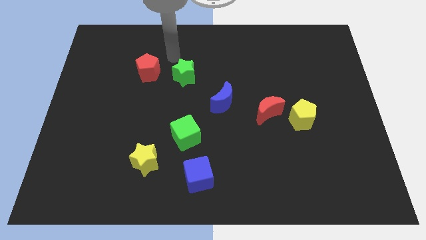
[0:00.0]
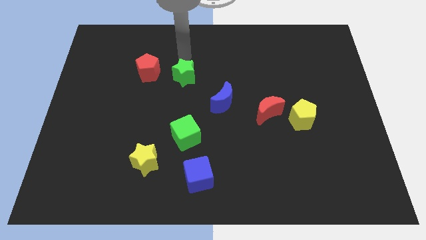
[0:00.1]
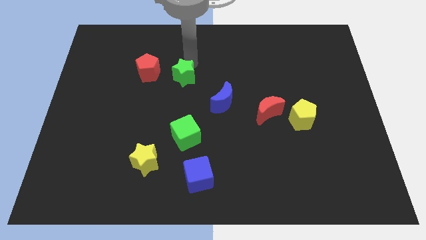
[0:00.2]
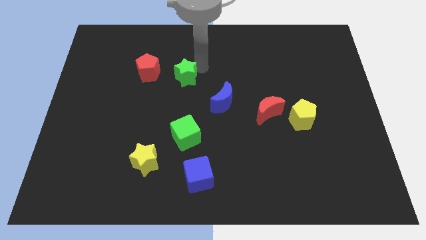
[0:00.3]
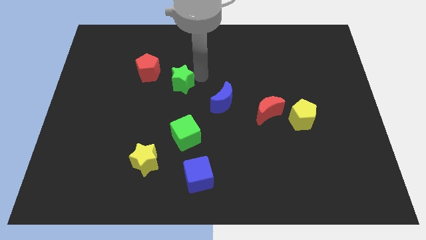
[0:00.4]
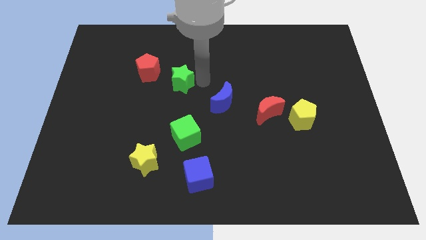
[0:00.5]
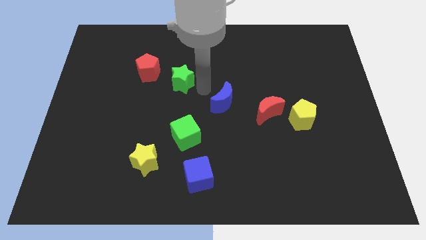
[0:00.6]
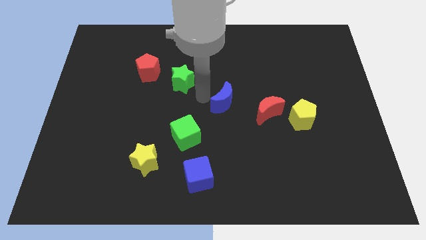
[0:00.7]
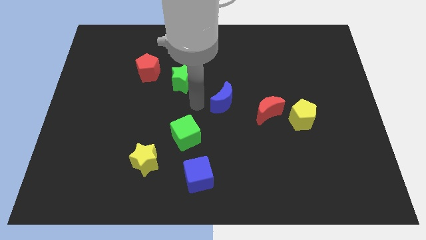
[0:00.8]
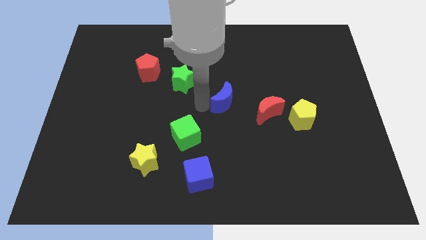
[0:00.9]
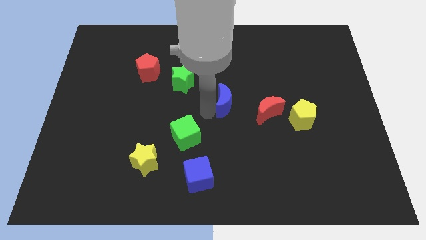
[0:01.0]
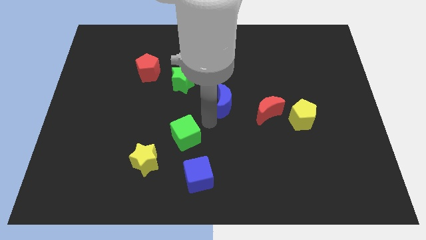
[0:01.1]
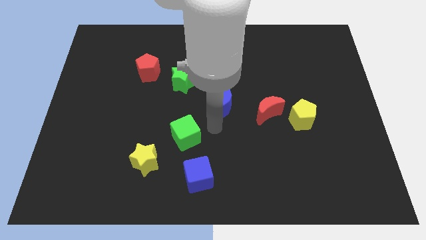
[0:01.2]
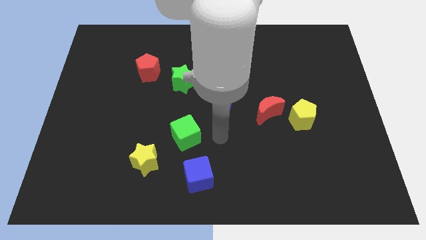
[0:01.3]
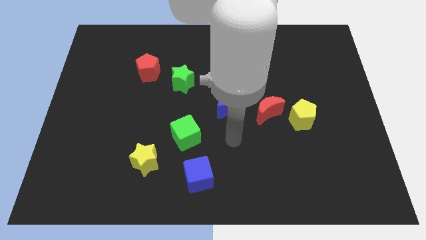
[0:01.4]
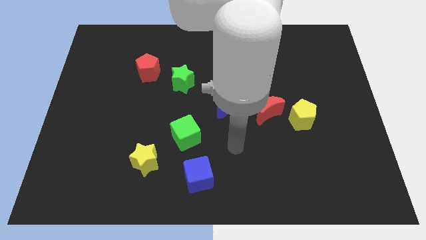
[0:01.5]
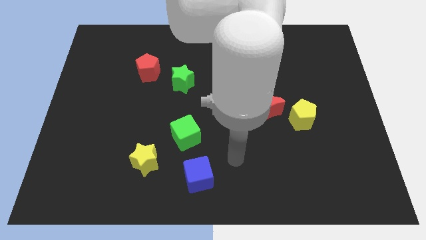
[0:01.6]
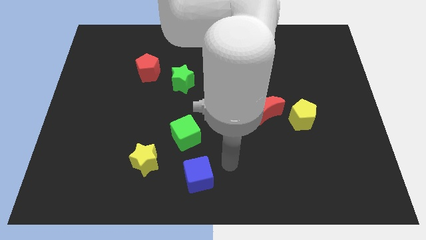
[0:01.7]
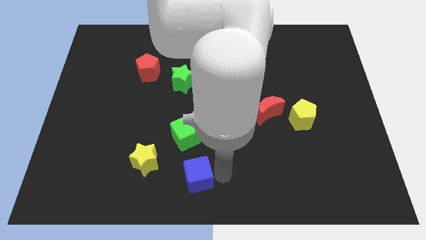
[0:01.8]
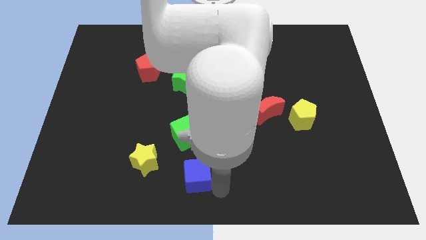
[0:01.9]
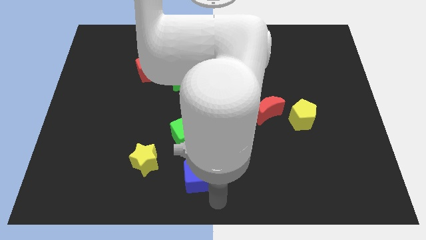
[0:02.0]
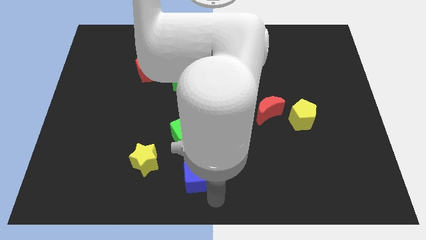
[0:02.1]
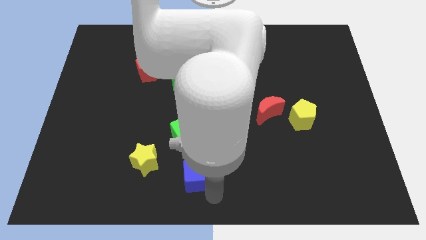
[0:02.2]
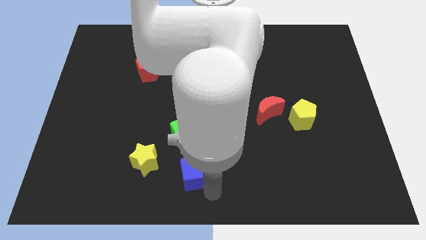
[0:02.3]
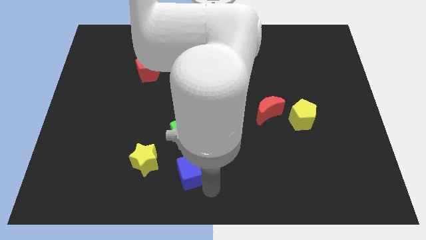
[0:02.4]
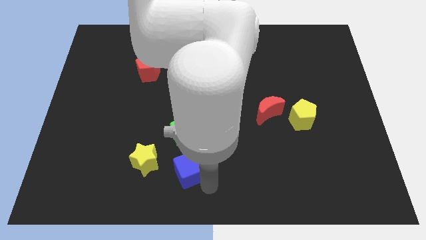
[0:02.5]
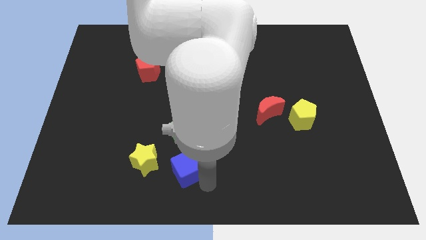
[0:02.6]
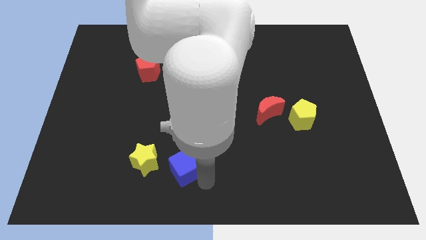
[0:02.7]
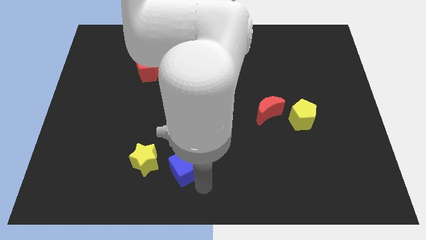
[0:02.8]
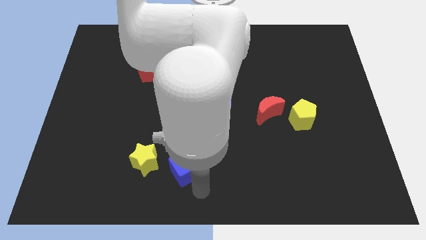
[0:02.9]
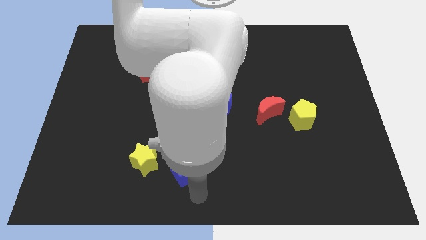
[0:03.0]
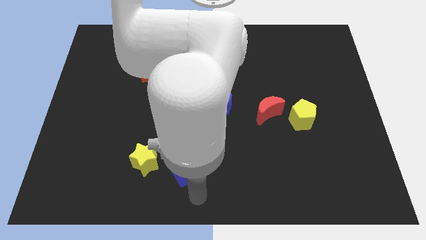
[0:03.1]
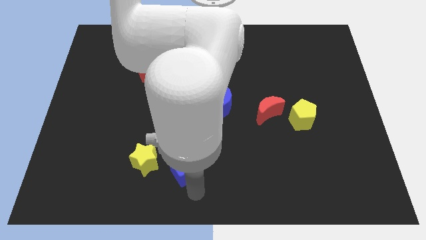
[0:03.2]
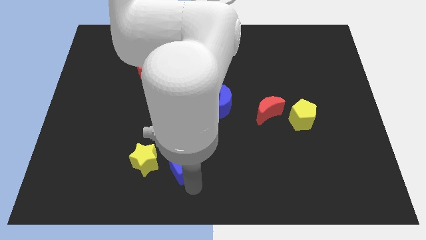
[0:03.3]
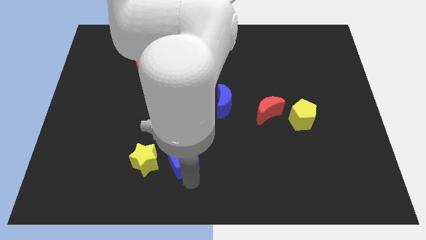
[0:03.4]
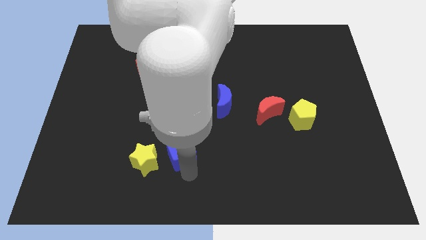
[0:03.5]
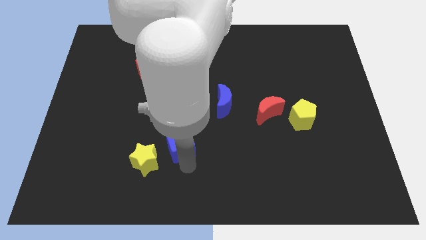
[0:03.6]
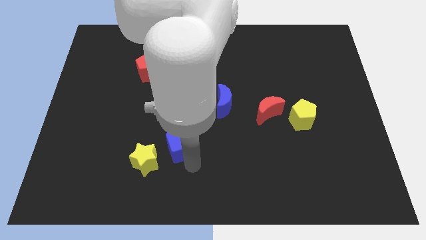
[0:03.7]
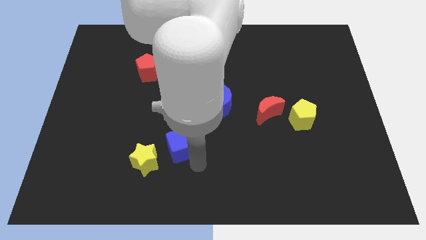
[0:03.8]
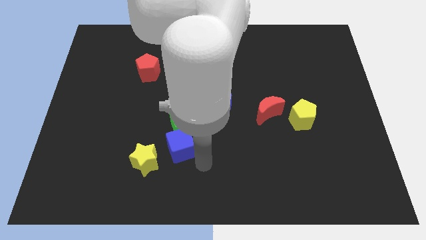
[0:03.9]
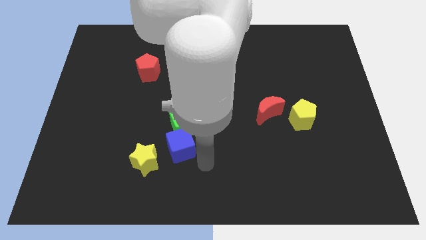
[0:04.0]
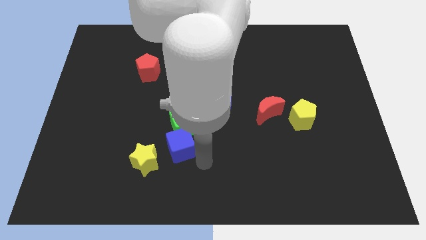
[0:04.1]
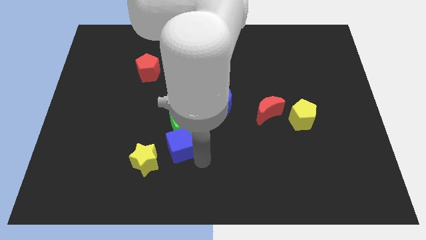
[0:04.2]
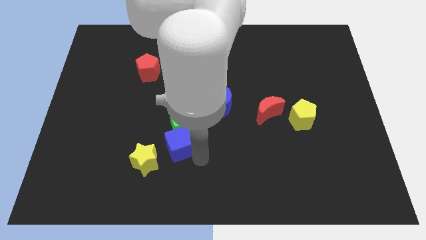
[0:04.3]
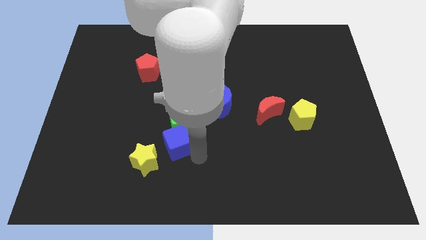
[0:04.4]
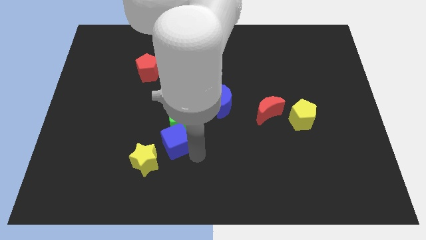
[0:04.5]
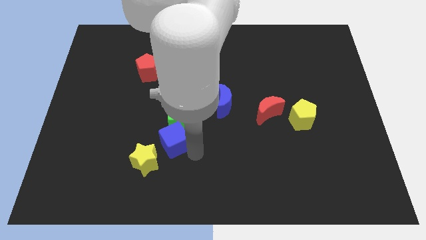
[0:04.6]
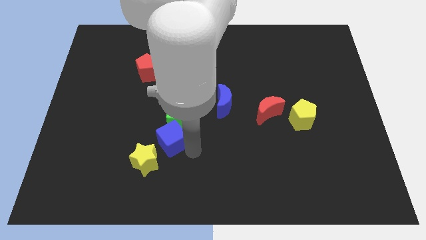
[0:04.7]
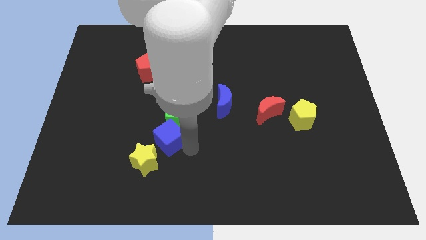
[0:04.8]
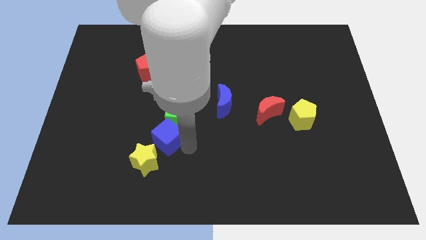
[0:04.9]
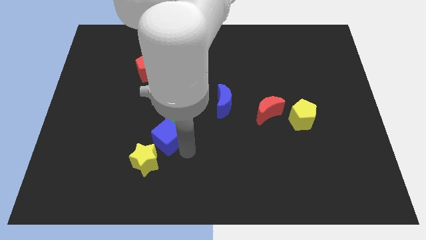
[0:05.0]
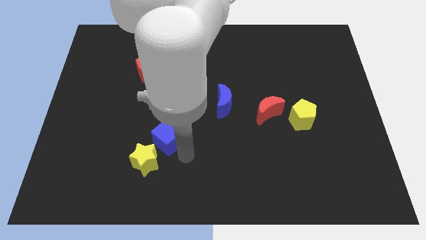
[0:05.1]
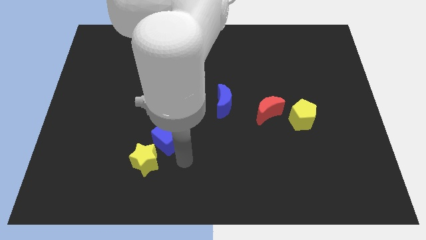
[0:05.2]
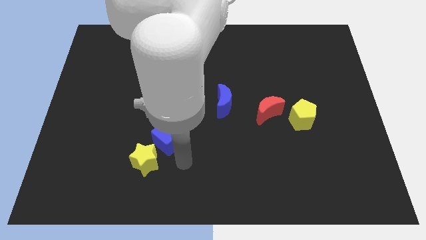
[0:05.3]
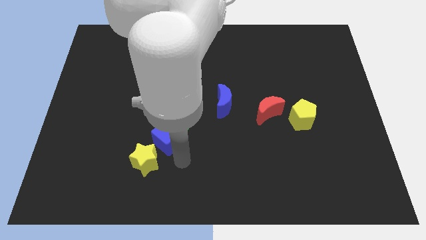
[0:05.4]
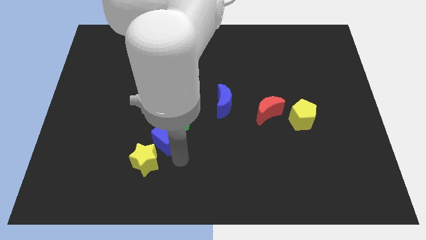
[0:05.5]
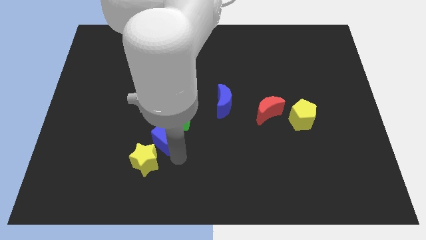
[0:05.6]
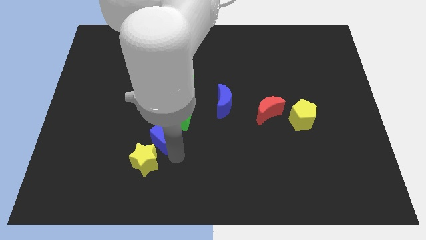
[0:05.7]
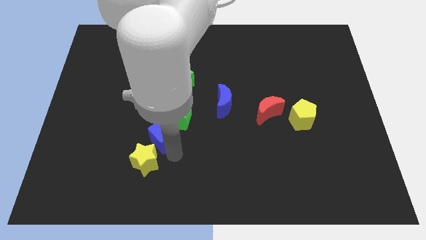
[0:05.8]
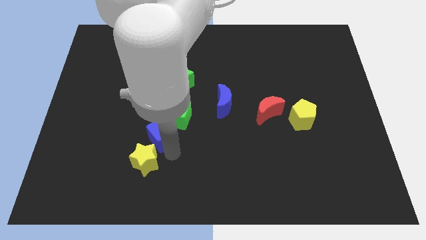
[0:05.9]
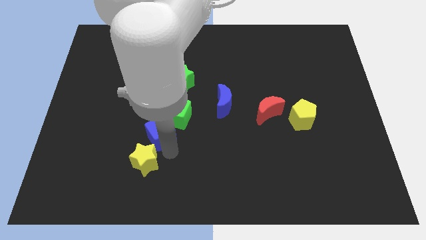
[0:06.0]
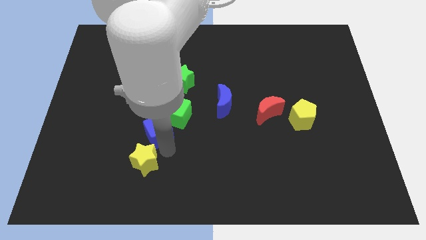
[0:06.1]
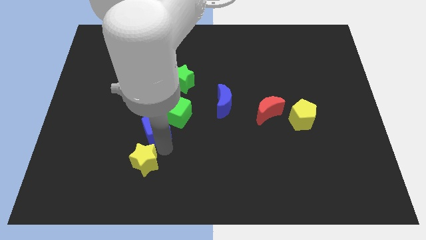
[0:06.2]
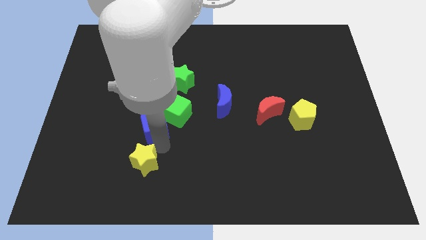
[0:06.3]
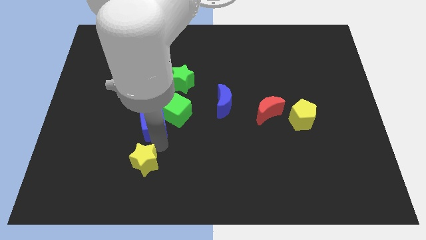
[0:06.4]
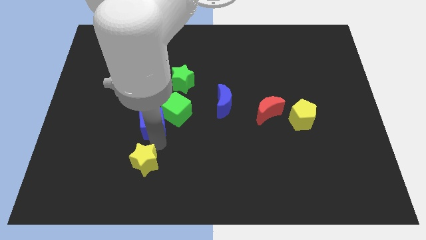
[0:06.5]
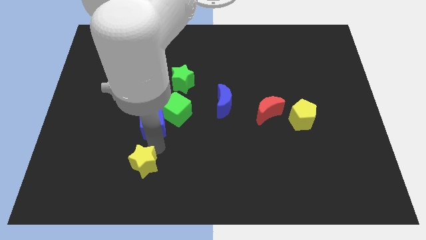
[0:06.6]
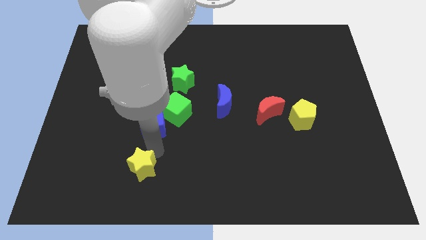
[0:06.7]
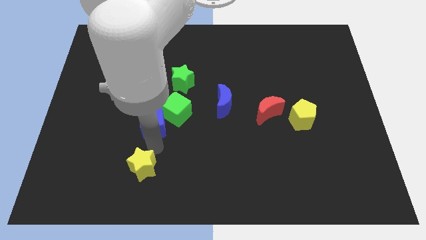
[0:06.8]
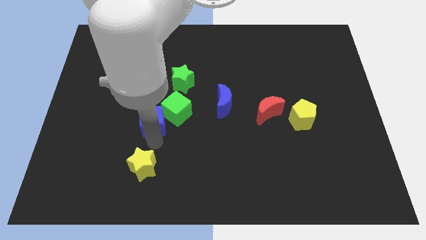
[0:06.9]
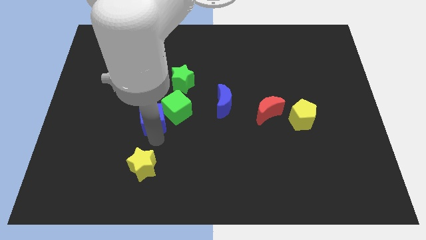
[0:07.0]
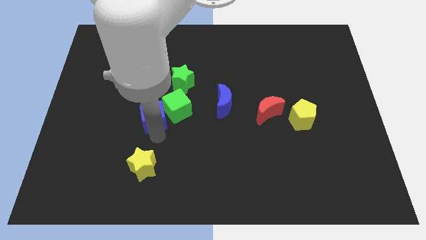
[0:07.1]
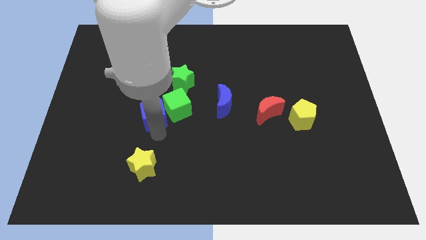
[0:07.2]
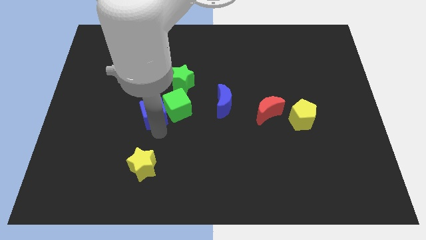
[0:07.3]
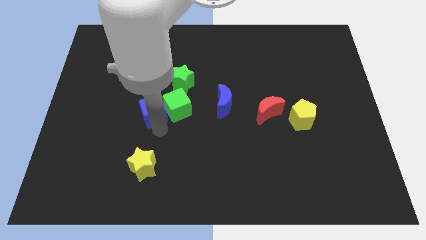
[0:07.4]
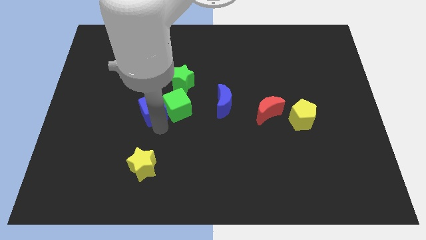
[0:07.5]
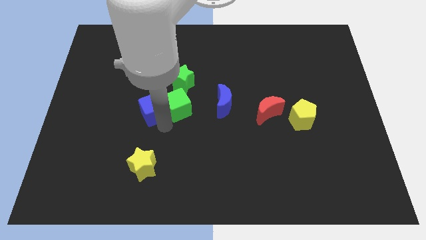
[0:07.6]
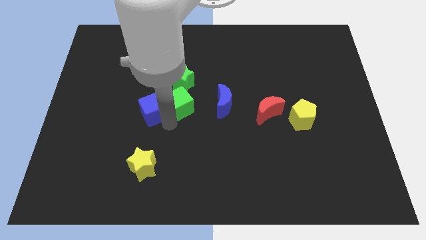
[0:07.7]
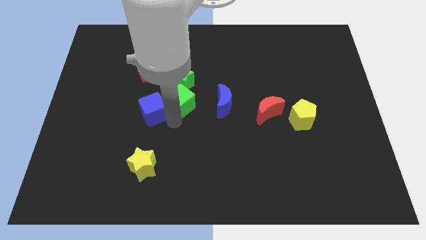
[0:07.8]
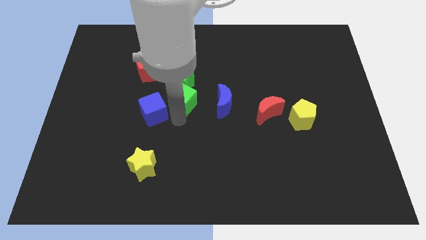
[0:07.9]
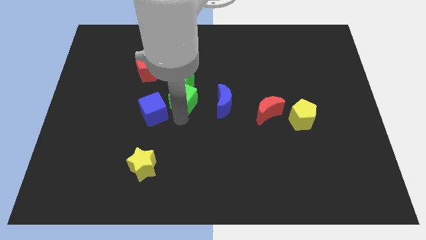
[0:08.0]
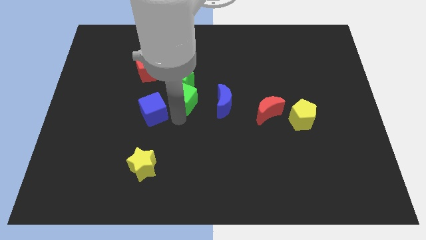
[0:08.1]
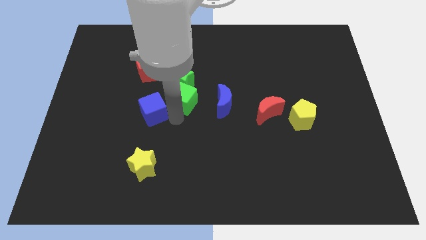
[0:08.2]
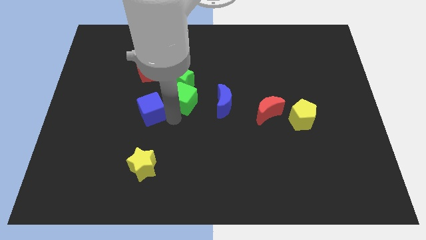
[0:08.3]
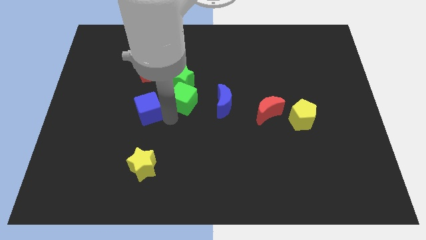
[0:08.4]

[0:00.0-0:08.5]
push the blue cube diagonally upwards and left
